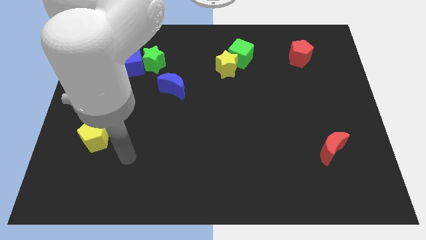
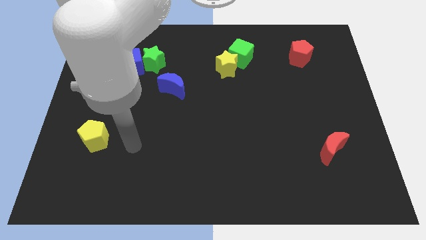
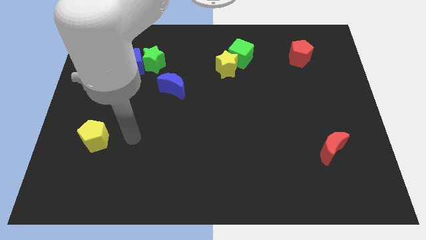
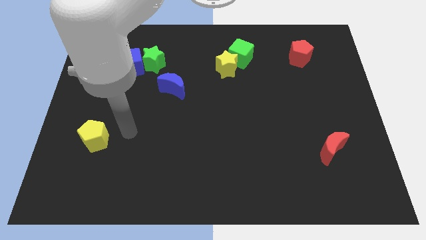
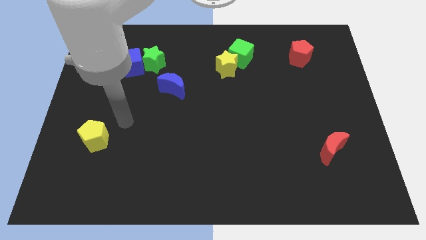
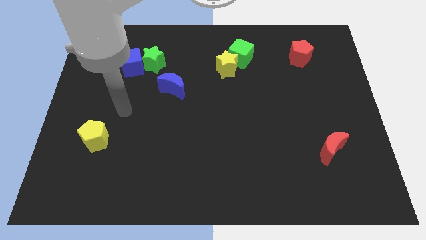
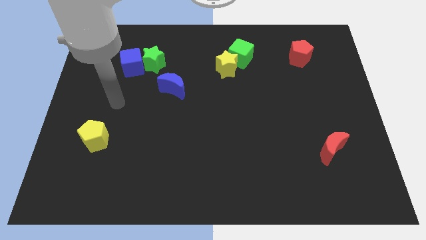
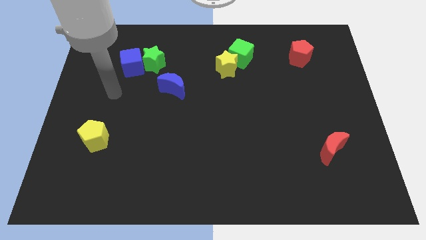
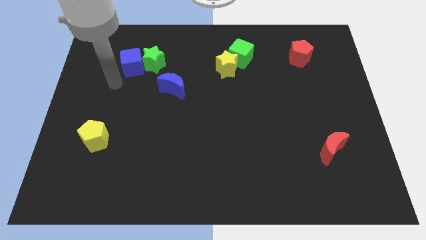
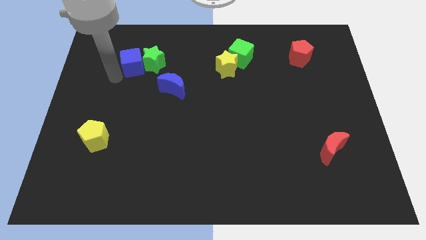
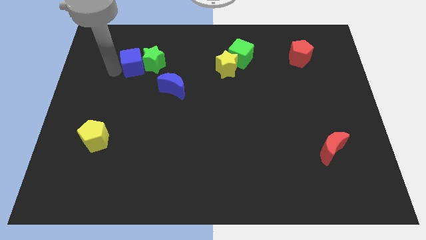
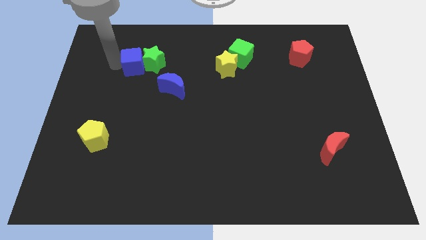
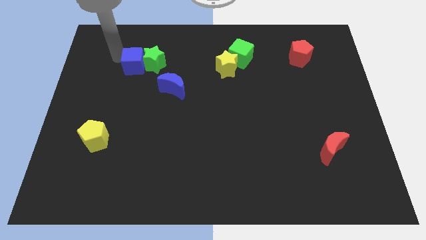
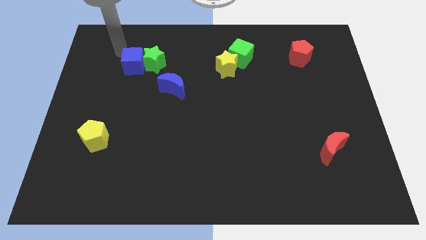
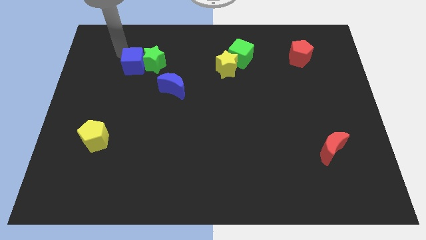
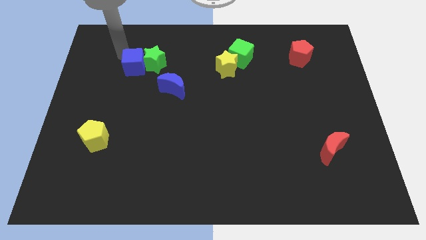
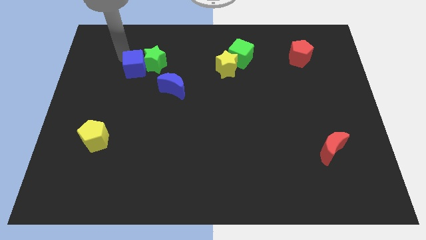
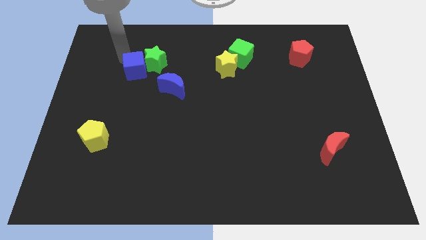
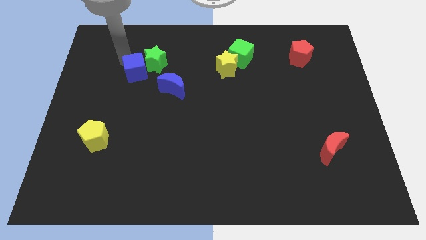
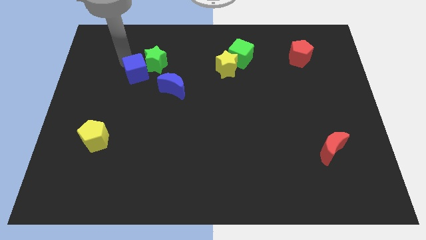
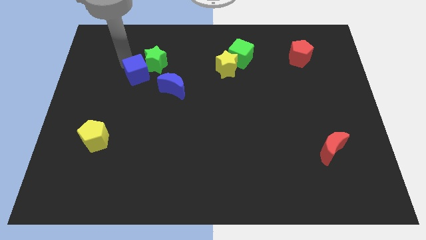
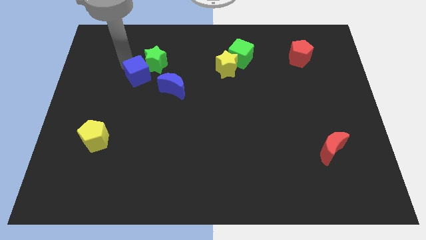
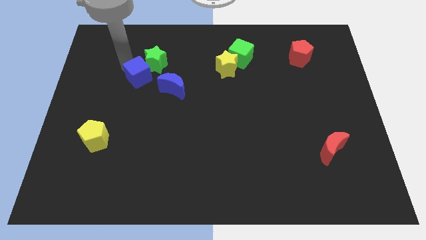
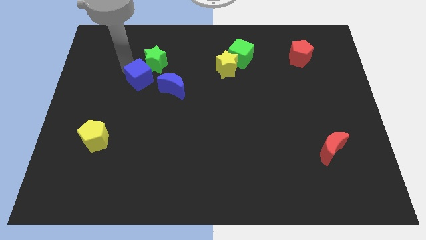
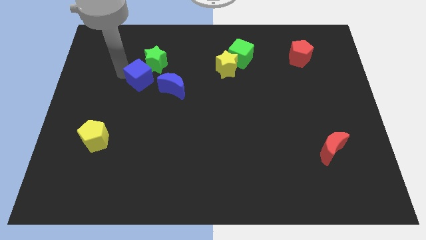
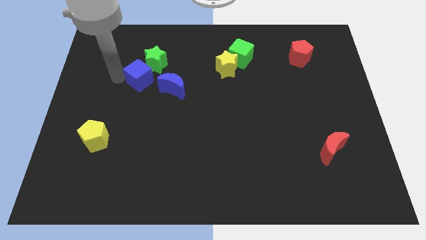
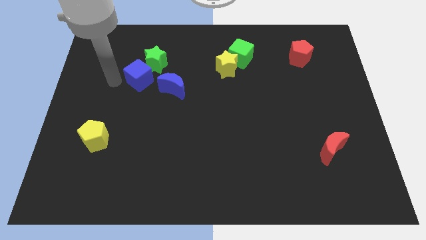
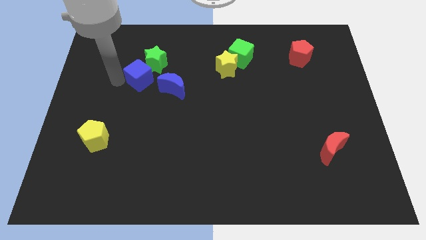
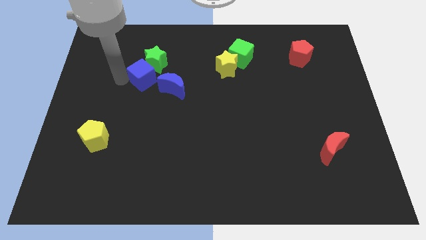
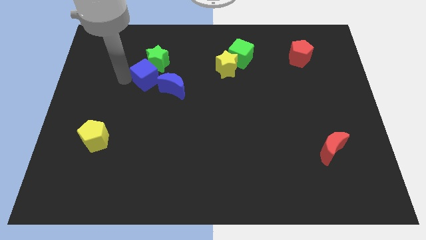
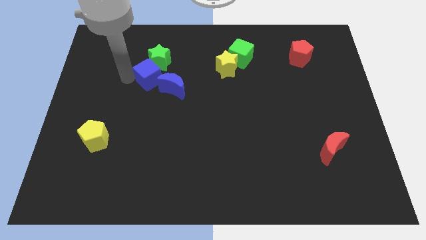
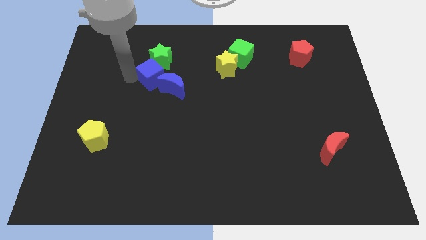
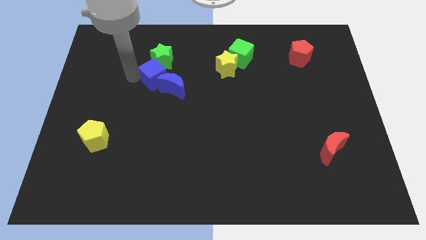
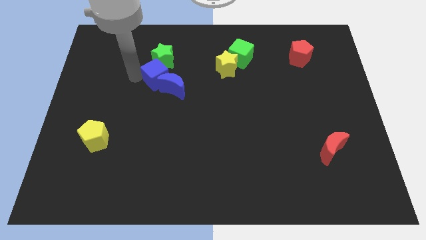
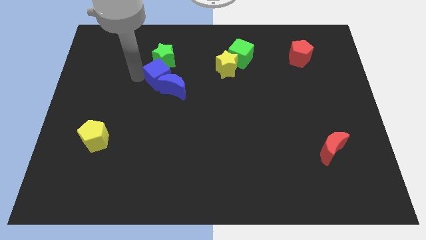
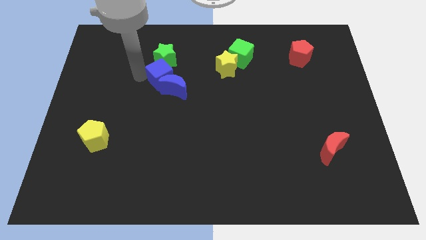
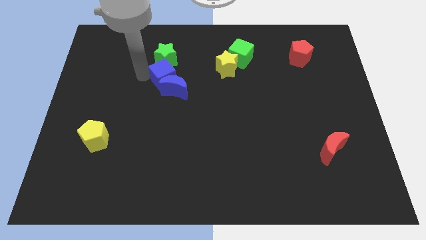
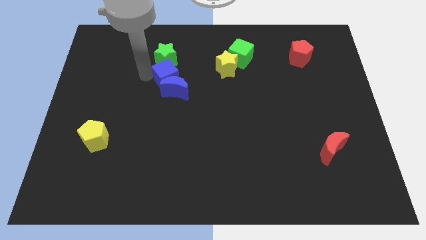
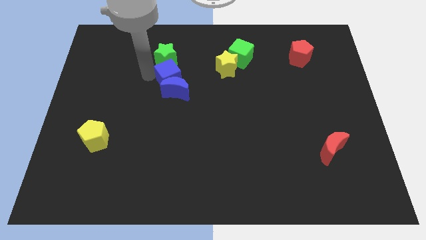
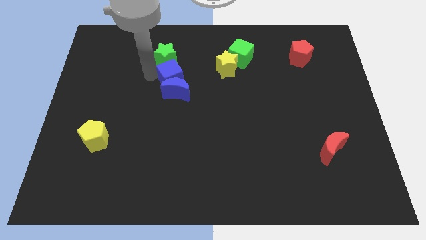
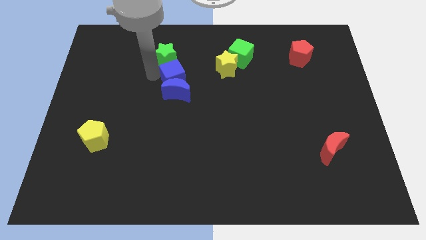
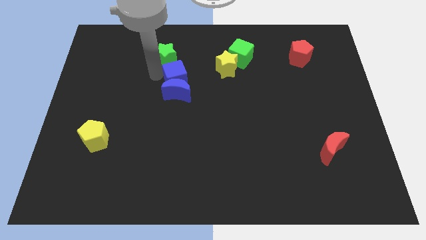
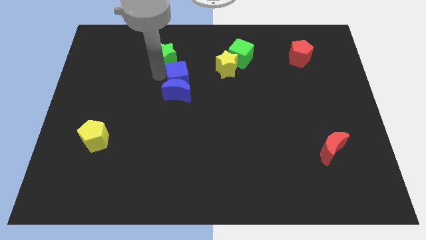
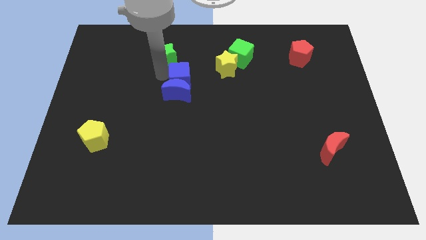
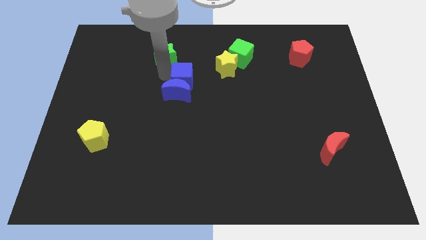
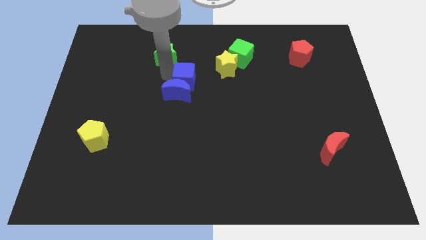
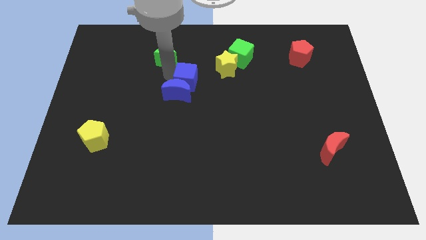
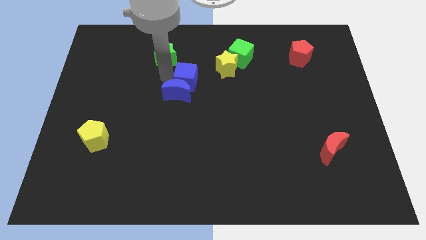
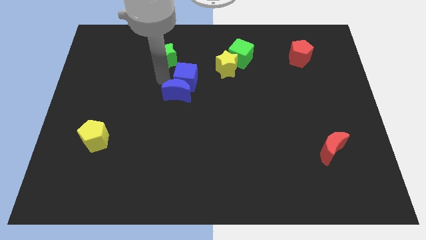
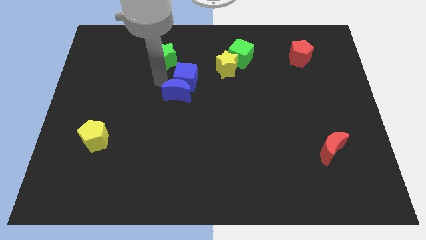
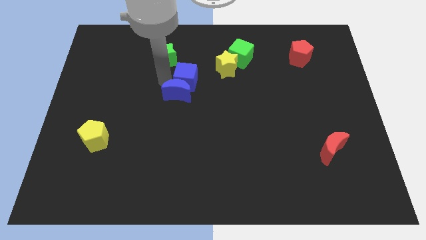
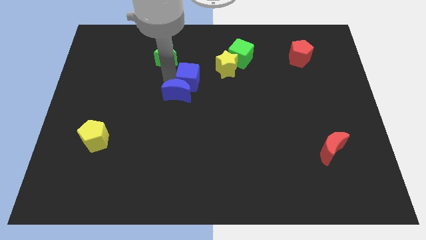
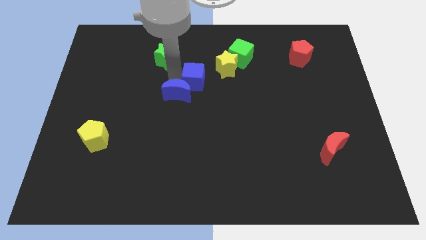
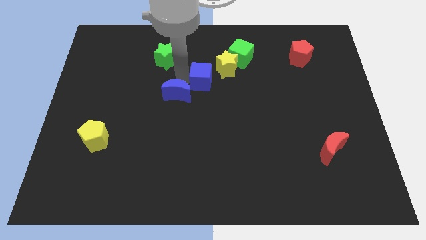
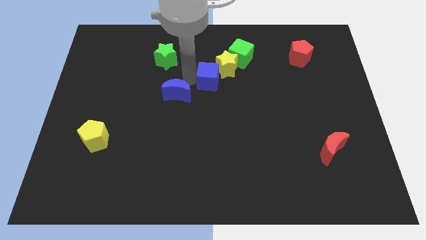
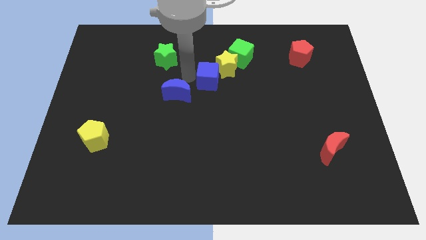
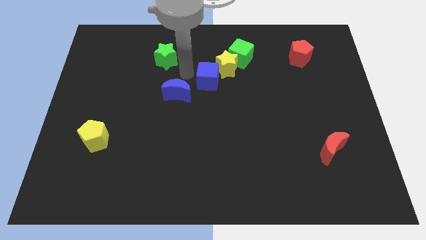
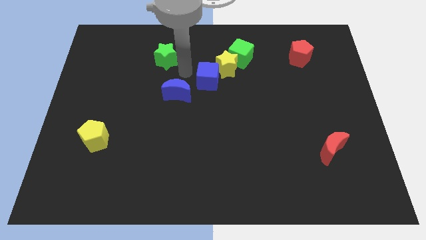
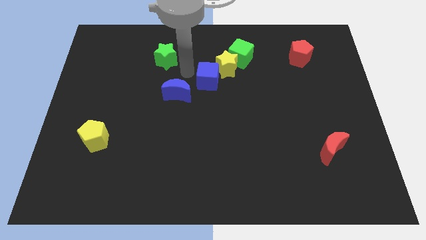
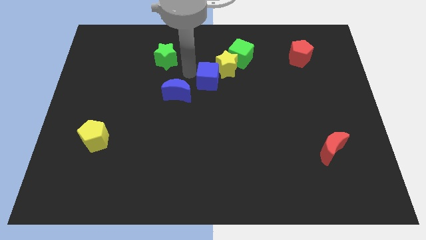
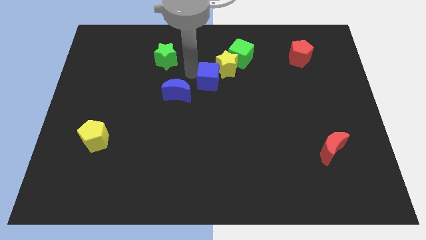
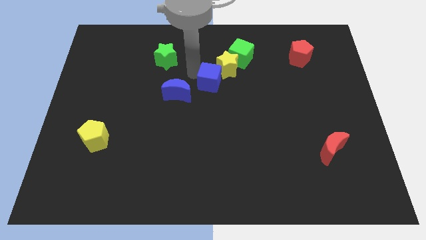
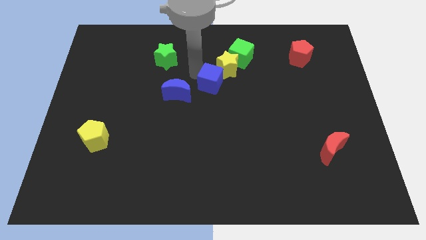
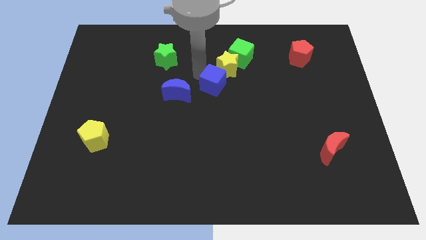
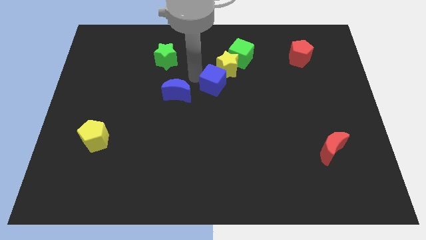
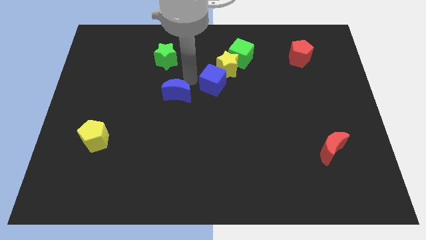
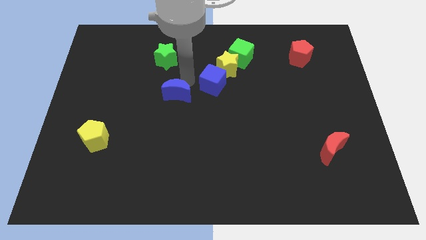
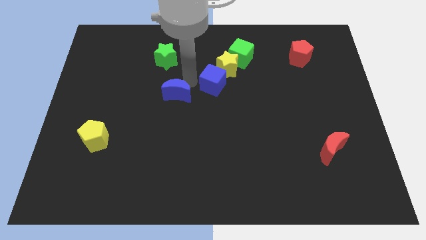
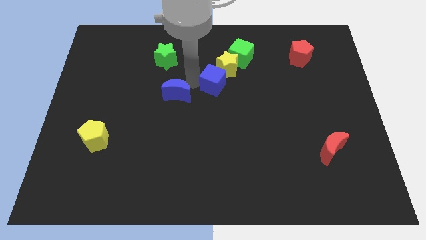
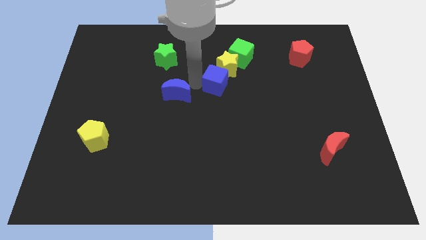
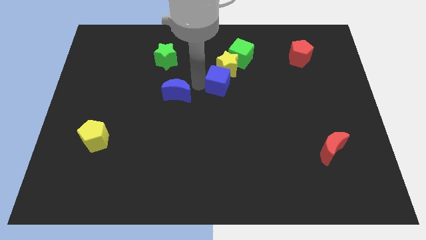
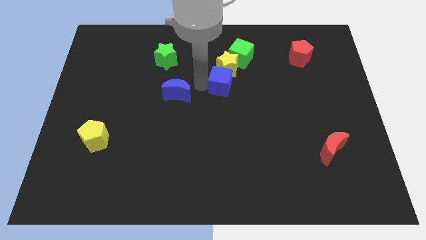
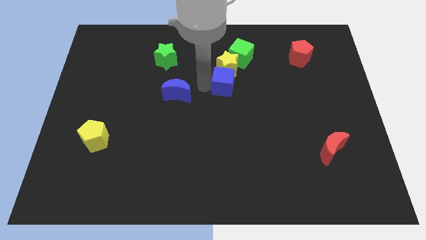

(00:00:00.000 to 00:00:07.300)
move the blue cube to the bottom of the green cube

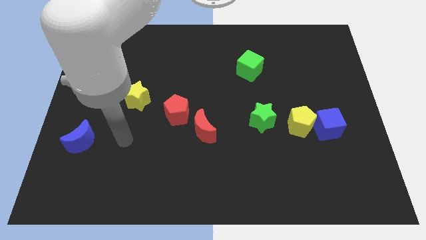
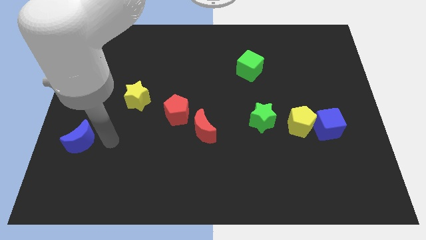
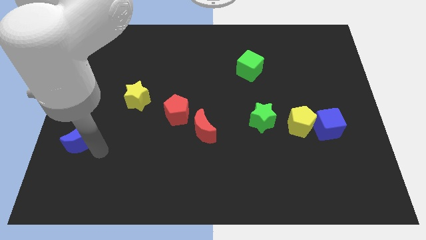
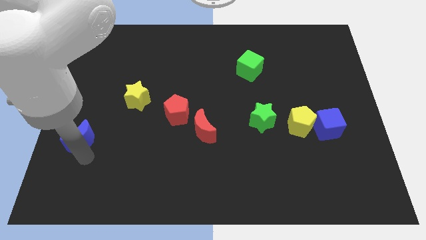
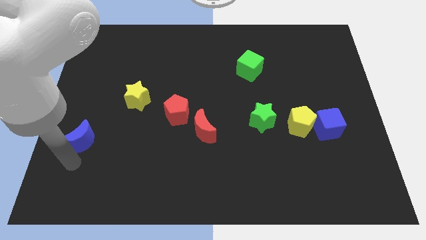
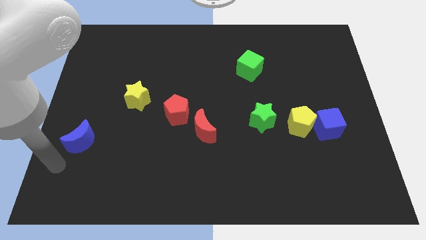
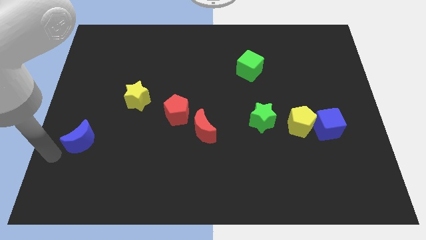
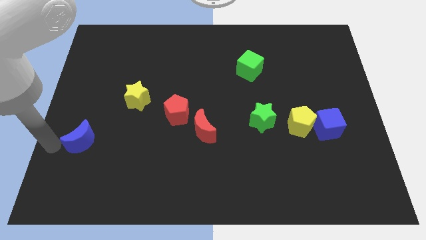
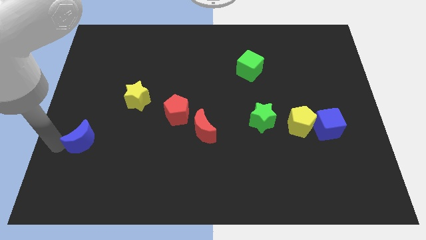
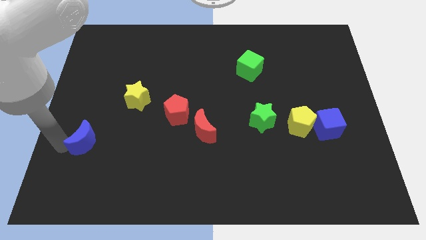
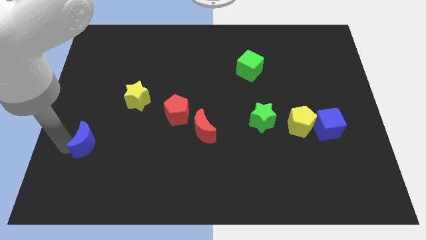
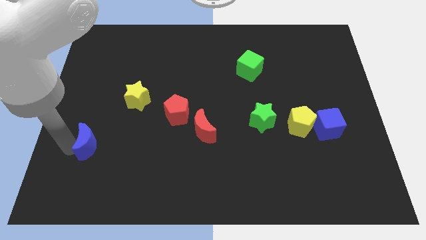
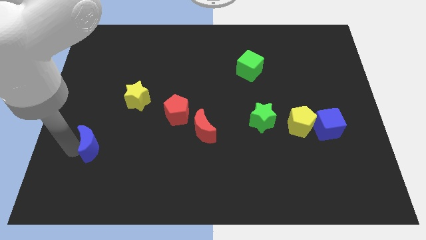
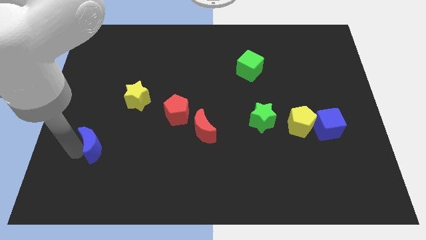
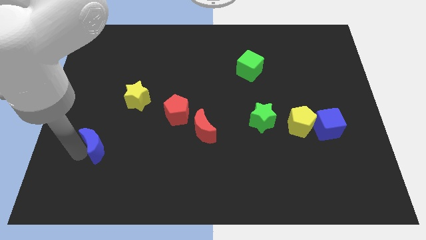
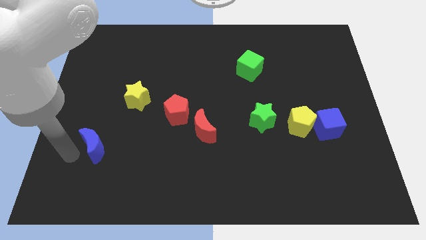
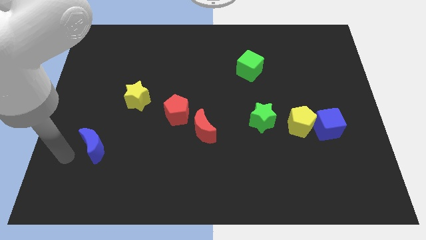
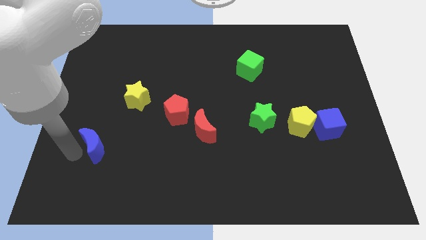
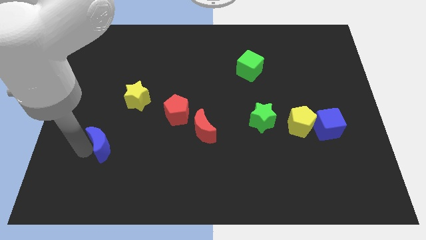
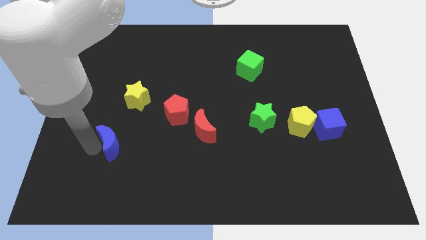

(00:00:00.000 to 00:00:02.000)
slide the blue moon below the yellow star
